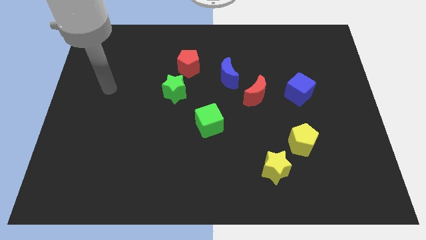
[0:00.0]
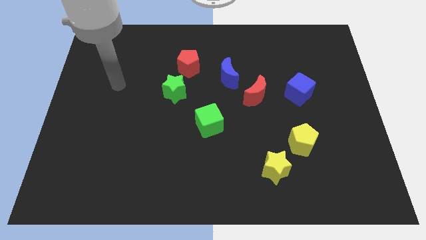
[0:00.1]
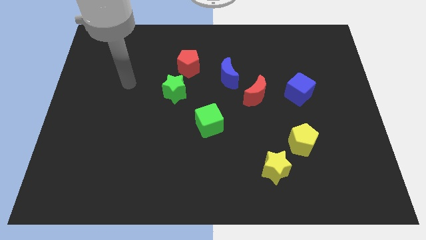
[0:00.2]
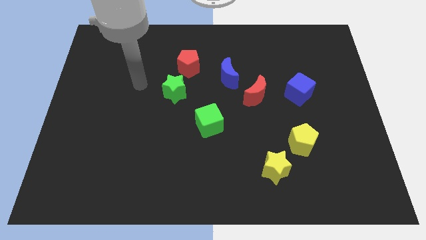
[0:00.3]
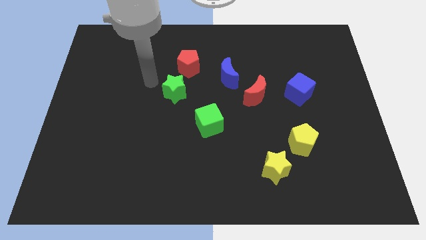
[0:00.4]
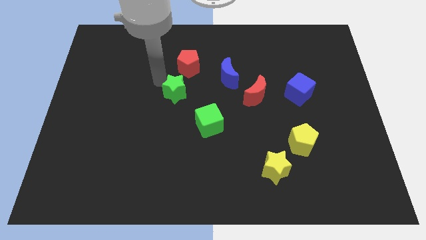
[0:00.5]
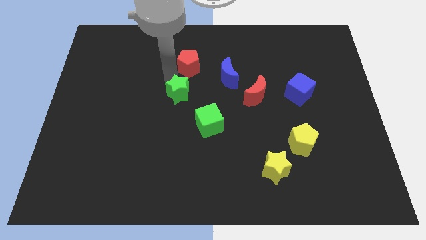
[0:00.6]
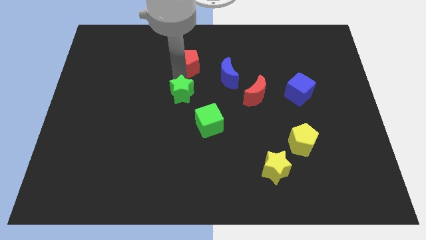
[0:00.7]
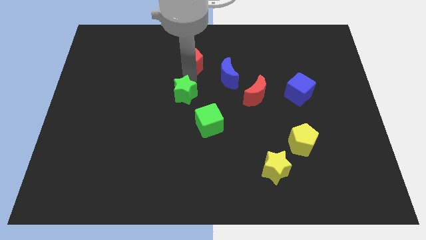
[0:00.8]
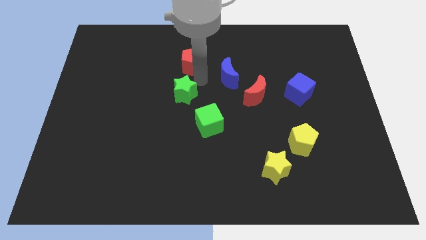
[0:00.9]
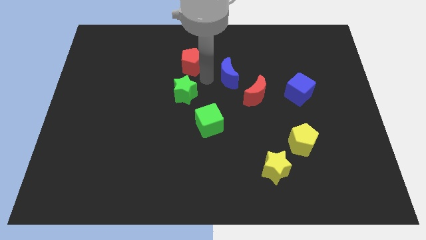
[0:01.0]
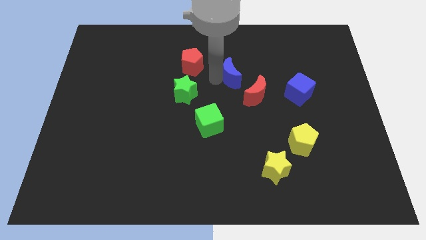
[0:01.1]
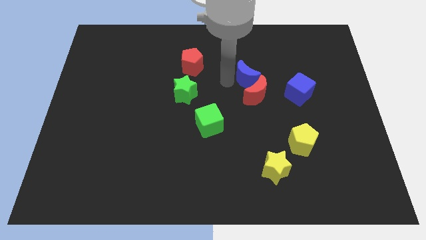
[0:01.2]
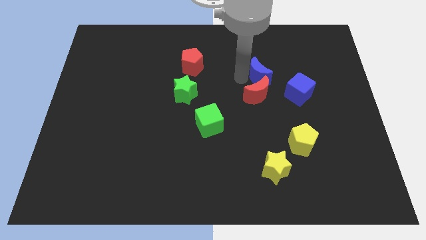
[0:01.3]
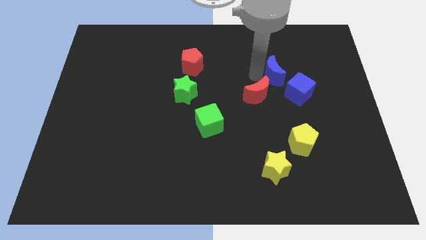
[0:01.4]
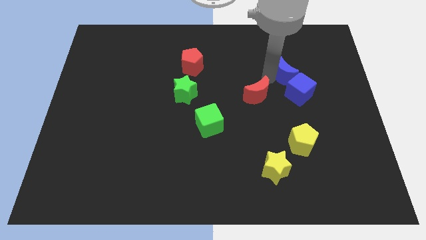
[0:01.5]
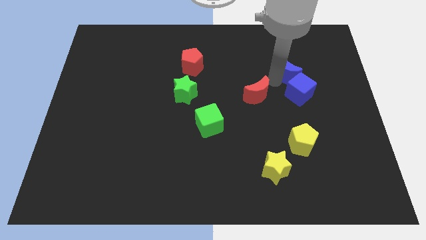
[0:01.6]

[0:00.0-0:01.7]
separate the red moon from the blue moon

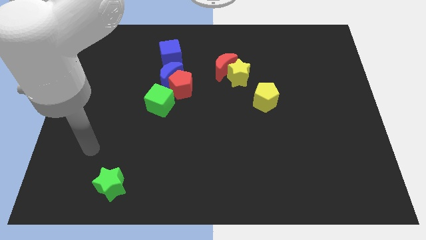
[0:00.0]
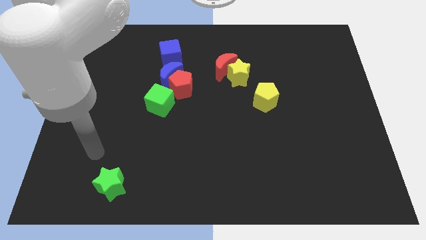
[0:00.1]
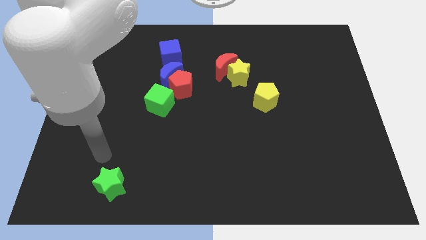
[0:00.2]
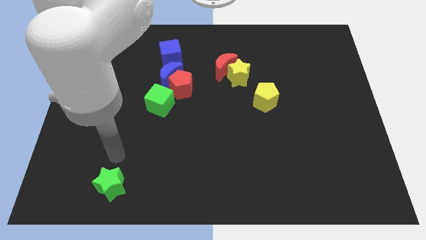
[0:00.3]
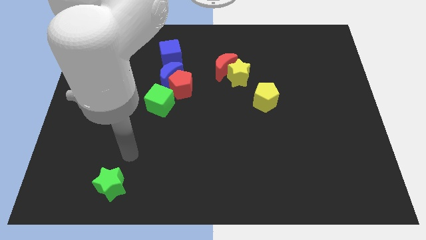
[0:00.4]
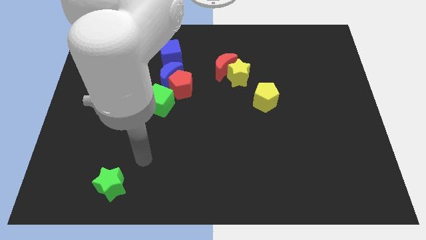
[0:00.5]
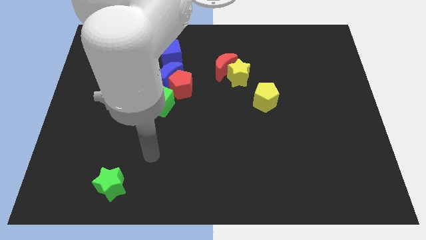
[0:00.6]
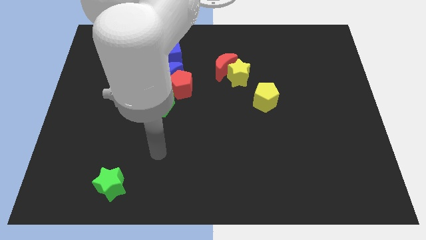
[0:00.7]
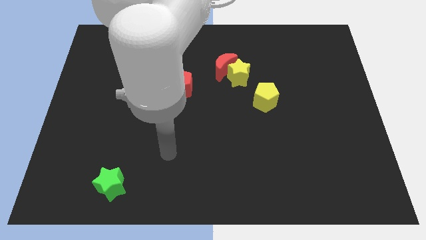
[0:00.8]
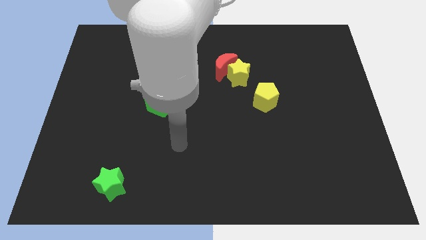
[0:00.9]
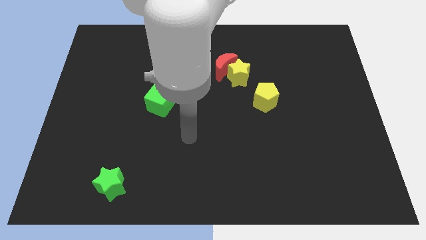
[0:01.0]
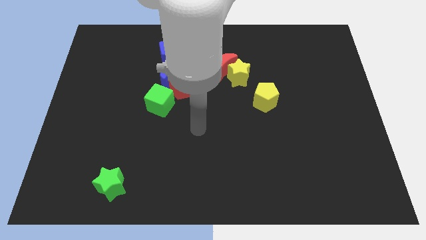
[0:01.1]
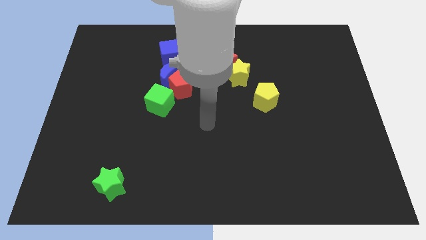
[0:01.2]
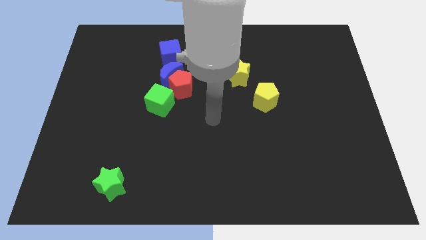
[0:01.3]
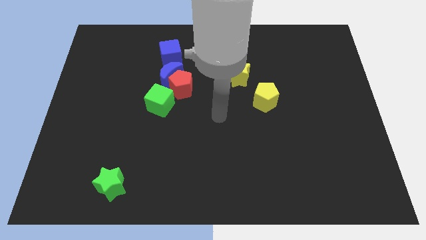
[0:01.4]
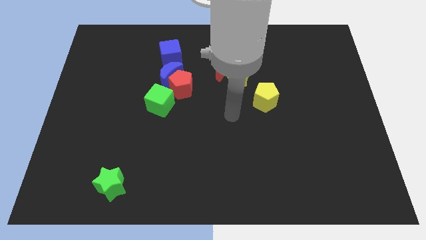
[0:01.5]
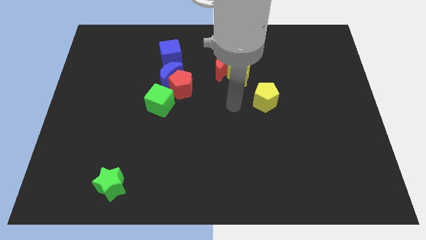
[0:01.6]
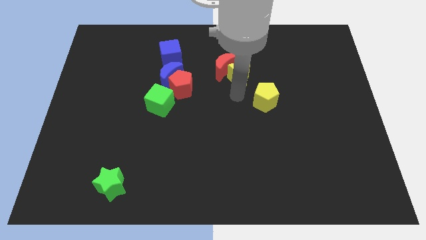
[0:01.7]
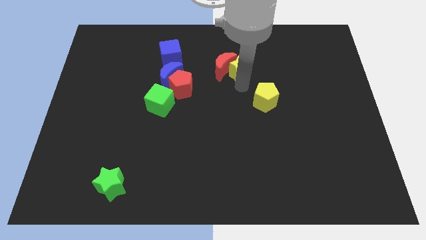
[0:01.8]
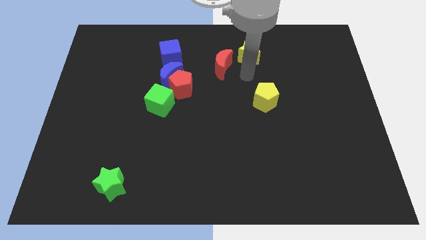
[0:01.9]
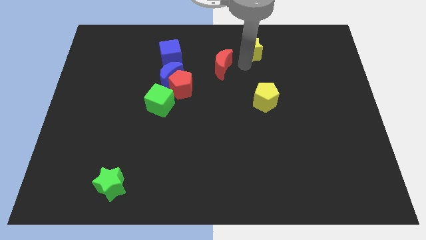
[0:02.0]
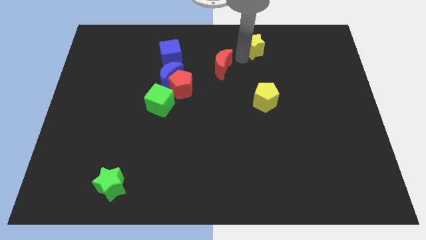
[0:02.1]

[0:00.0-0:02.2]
separate the red moon from the yellow star

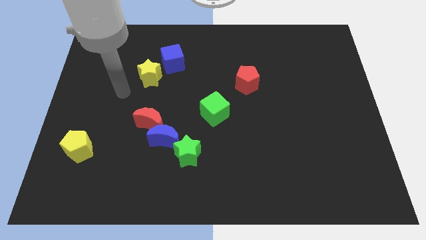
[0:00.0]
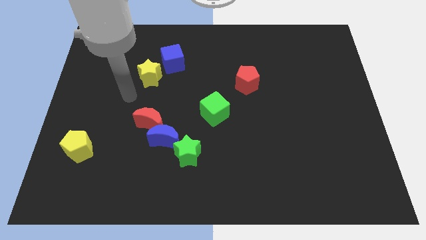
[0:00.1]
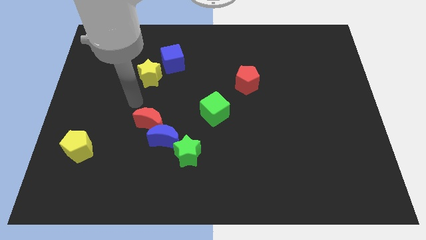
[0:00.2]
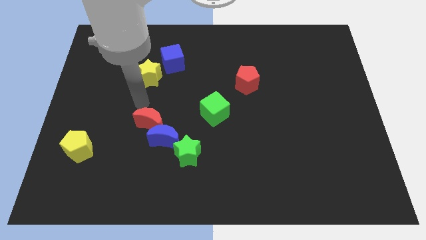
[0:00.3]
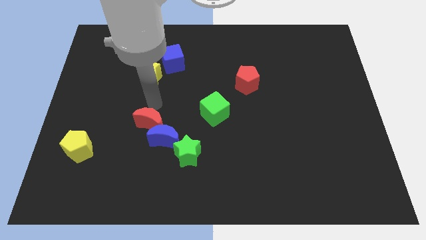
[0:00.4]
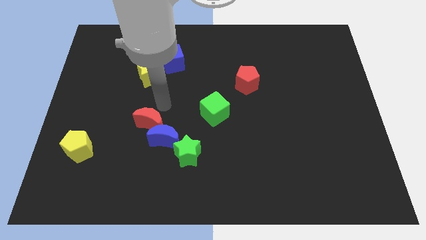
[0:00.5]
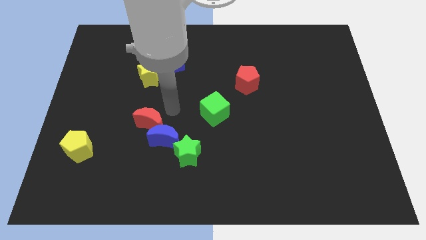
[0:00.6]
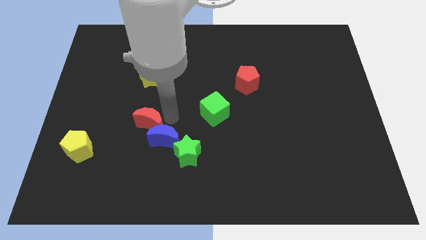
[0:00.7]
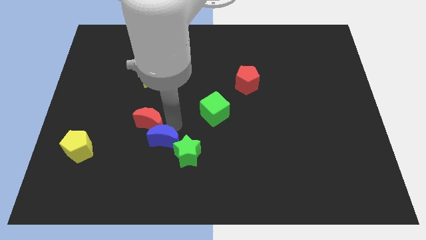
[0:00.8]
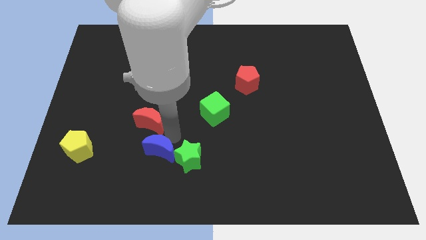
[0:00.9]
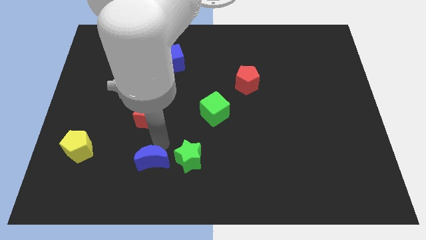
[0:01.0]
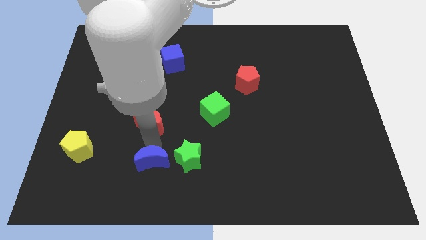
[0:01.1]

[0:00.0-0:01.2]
pull the red moon apart from the blue moon

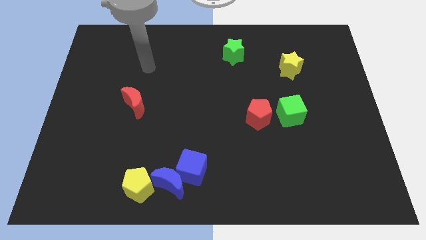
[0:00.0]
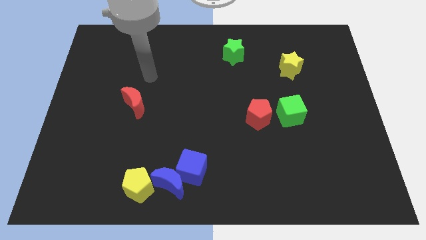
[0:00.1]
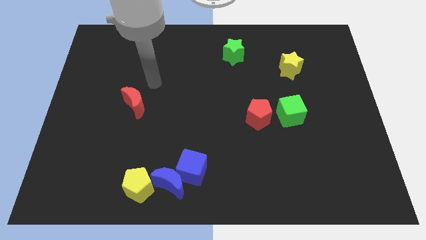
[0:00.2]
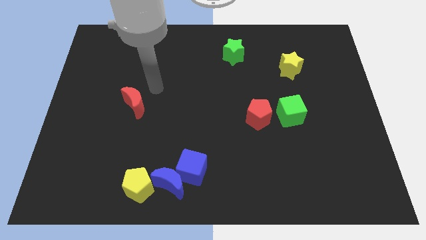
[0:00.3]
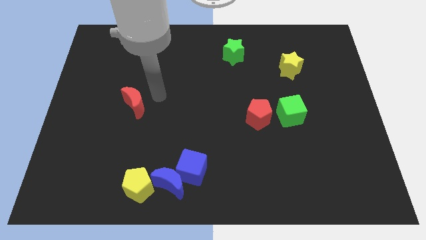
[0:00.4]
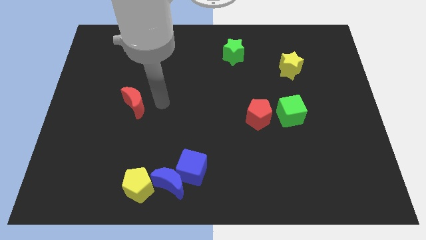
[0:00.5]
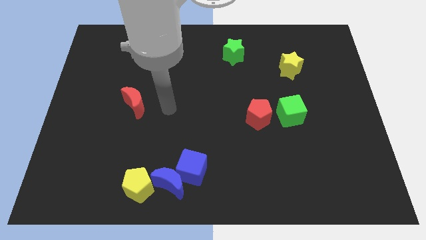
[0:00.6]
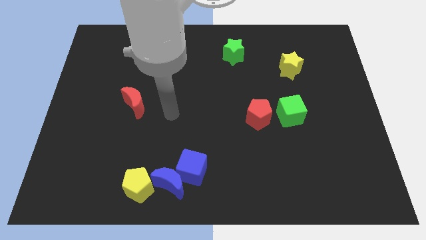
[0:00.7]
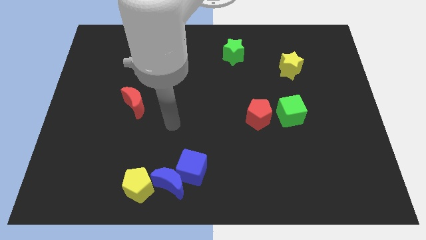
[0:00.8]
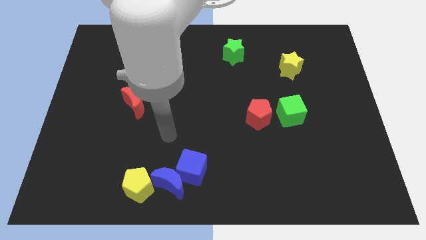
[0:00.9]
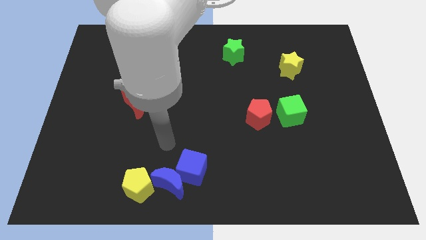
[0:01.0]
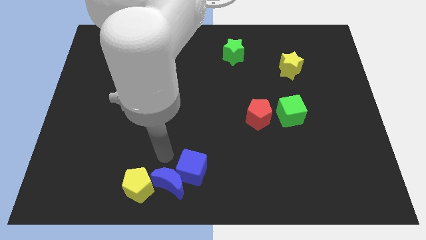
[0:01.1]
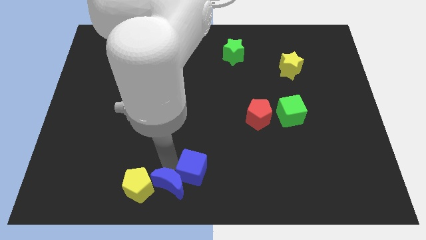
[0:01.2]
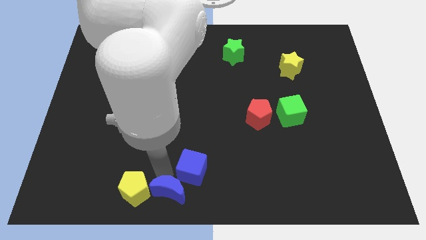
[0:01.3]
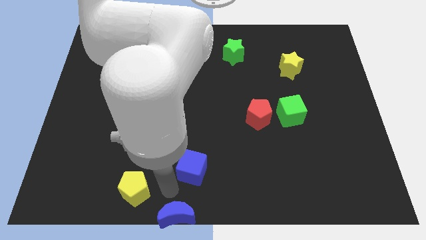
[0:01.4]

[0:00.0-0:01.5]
move the blue cube away from the blue moon

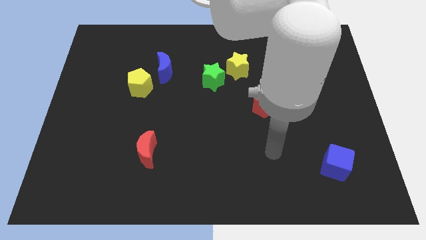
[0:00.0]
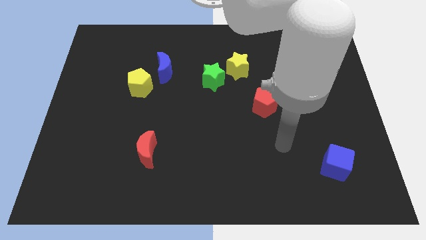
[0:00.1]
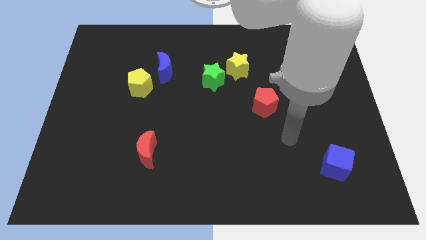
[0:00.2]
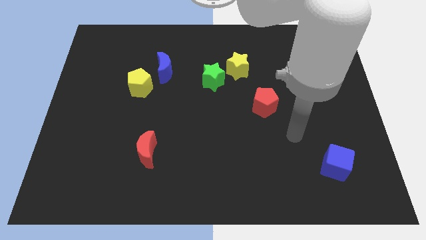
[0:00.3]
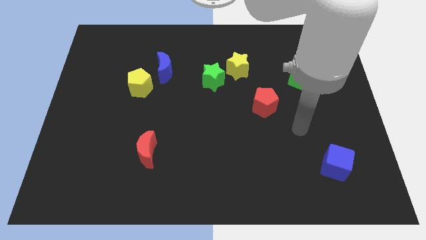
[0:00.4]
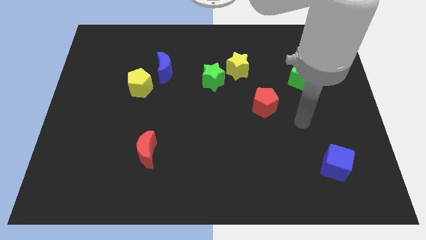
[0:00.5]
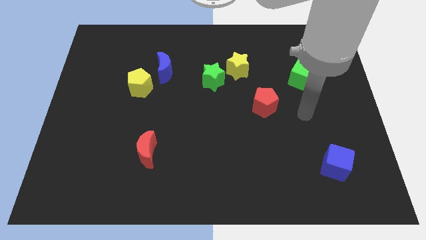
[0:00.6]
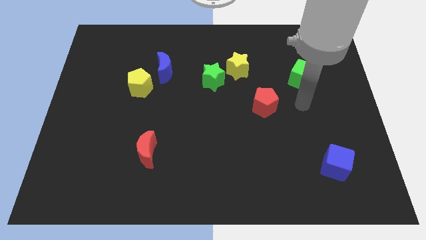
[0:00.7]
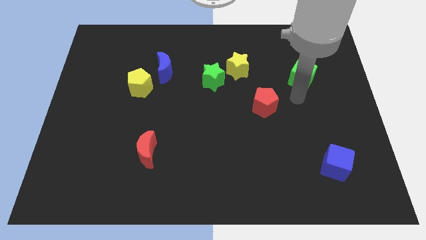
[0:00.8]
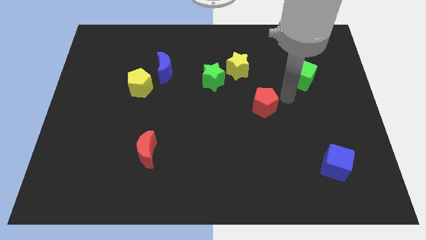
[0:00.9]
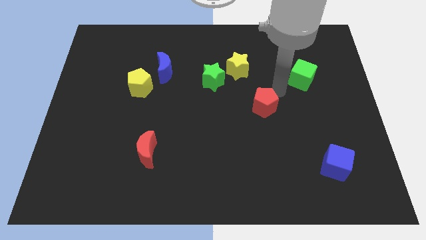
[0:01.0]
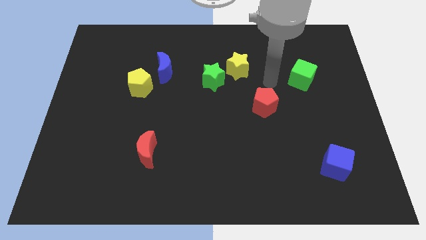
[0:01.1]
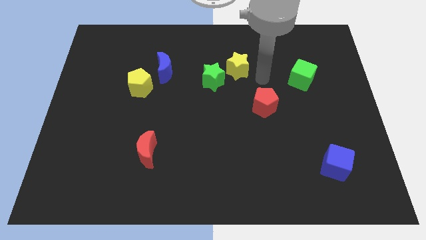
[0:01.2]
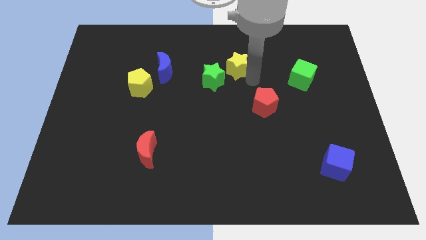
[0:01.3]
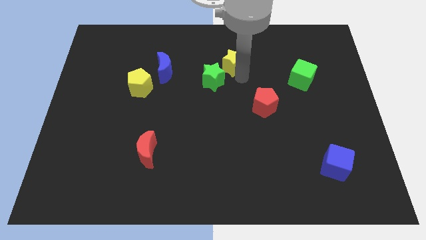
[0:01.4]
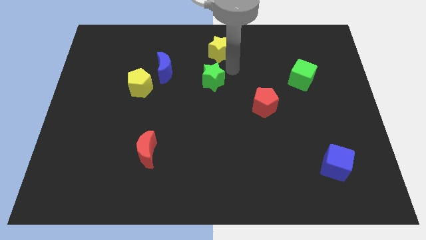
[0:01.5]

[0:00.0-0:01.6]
separate the green star from the yellow star

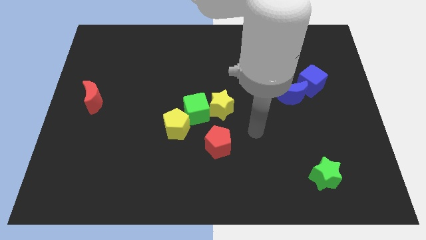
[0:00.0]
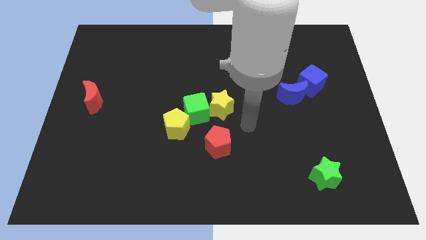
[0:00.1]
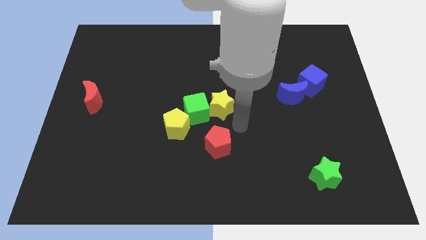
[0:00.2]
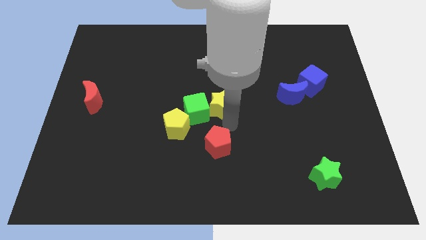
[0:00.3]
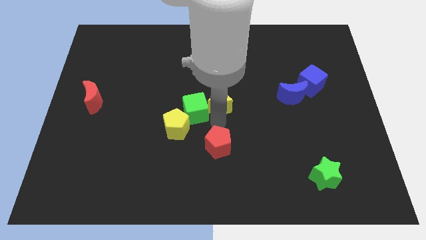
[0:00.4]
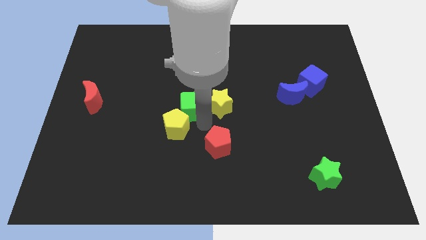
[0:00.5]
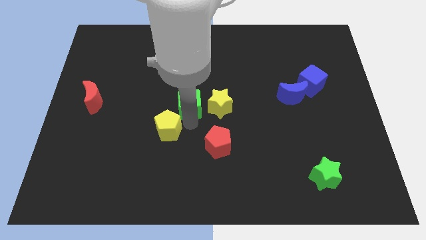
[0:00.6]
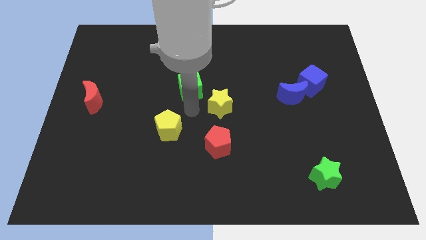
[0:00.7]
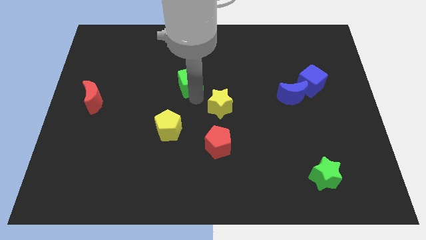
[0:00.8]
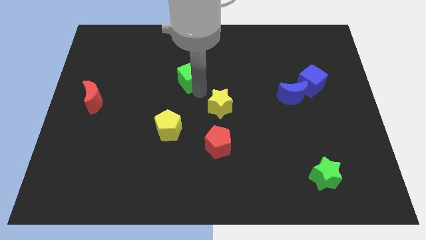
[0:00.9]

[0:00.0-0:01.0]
move the yellow star away from the green cube
